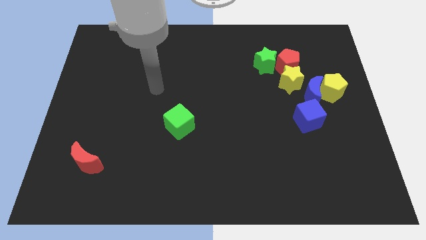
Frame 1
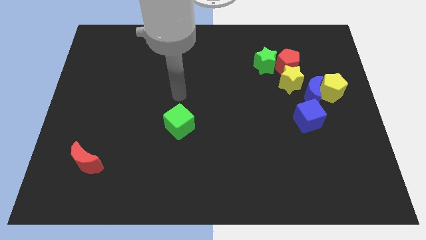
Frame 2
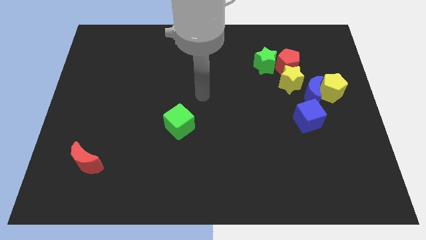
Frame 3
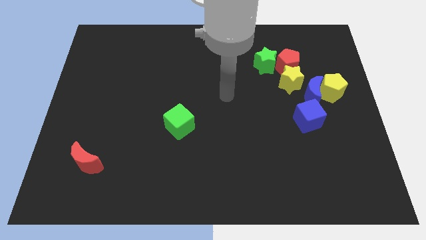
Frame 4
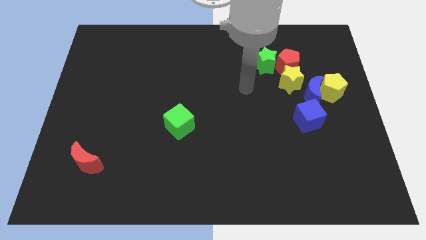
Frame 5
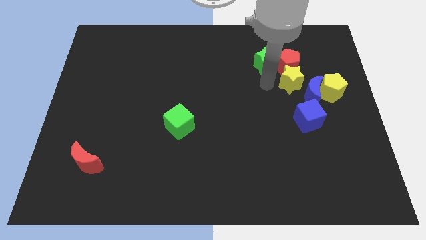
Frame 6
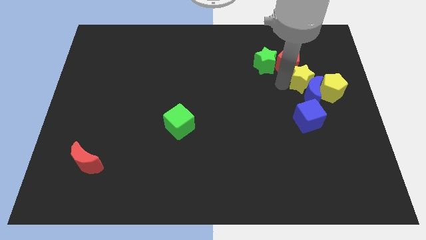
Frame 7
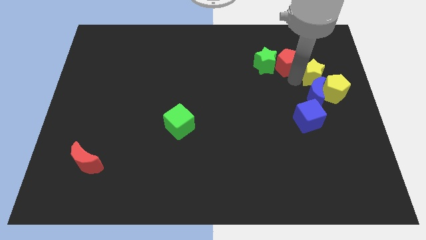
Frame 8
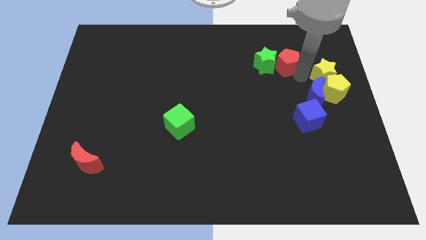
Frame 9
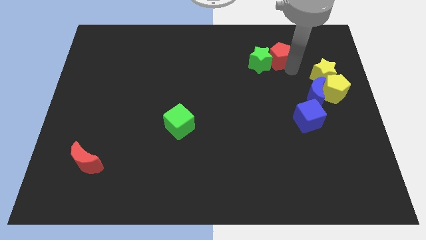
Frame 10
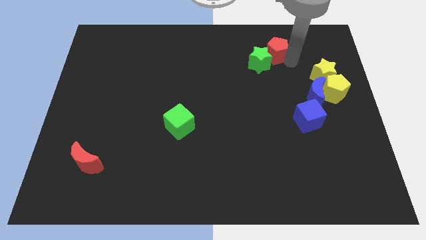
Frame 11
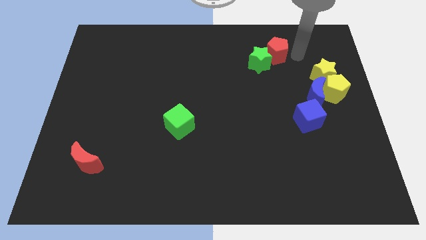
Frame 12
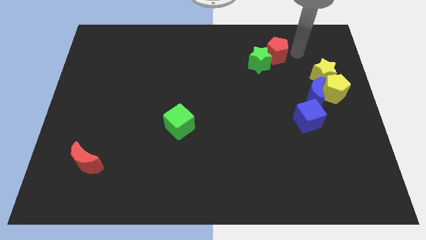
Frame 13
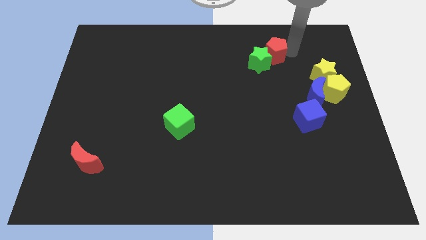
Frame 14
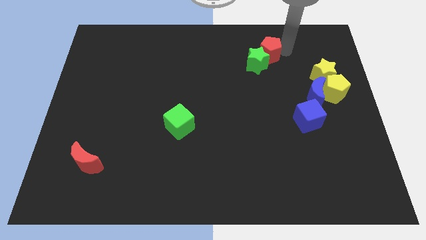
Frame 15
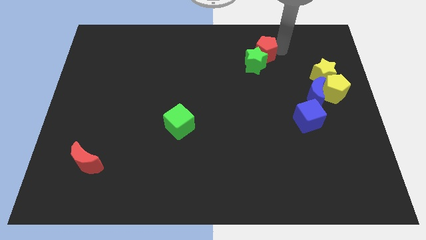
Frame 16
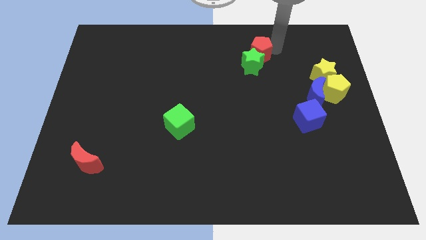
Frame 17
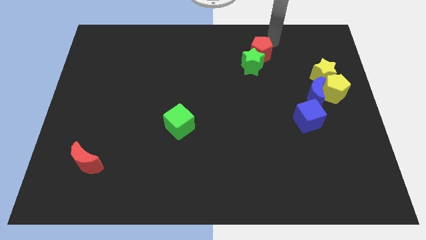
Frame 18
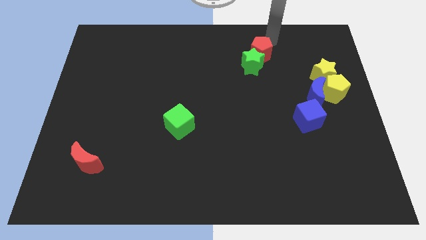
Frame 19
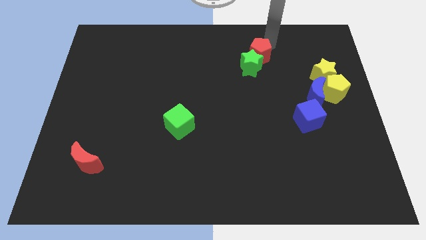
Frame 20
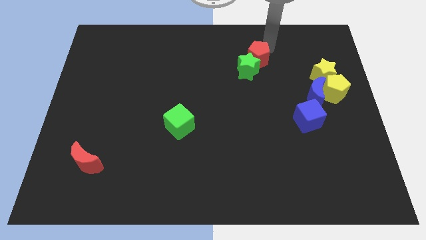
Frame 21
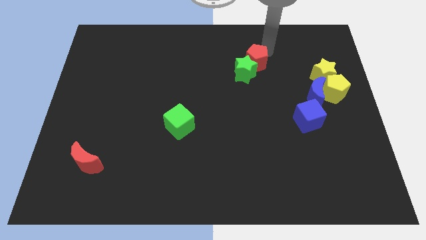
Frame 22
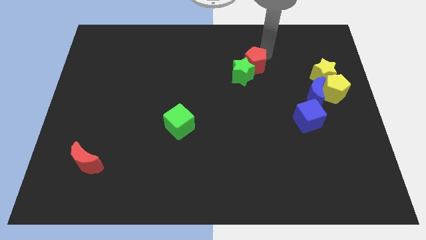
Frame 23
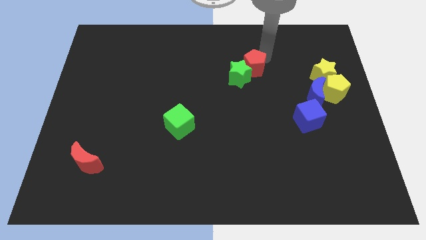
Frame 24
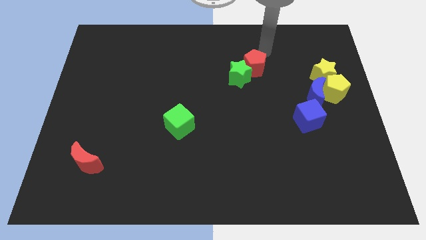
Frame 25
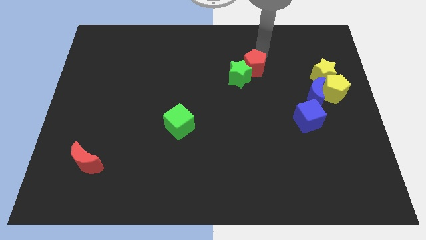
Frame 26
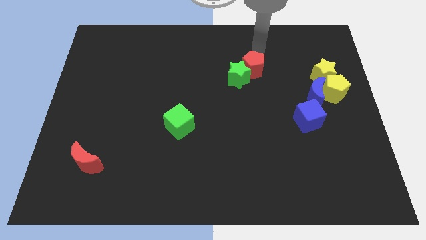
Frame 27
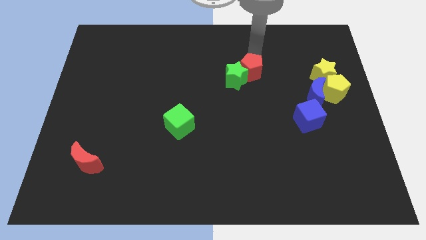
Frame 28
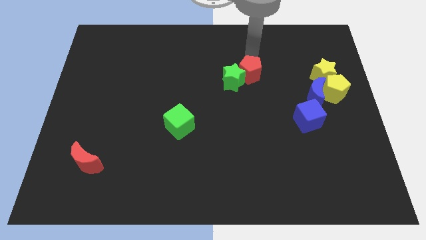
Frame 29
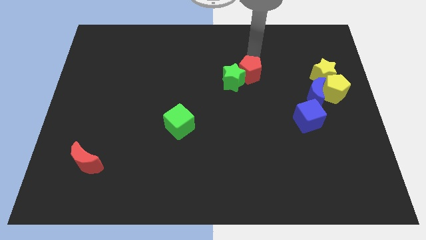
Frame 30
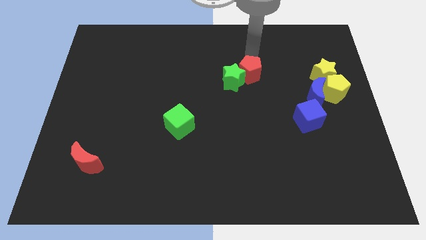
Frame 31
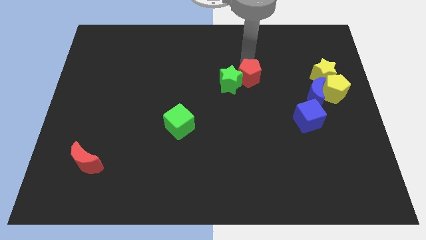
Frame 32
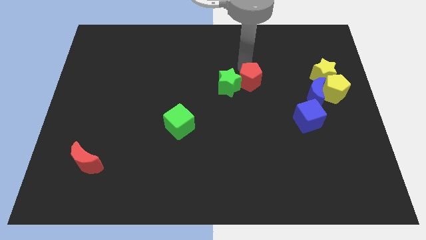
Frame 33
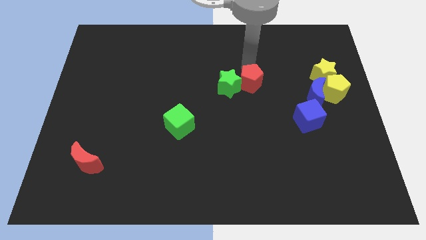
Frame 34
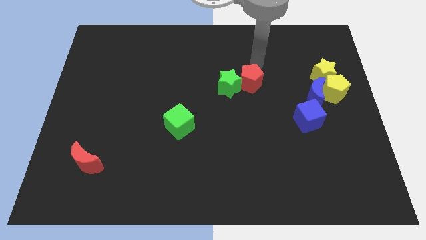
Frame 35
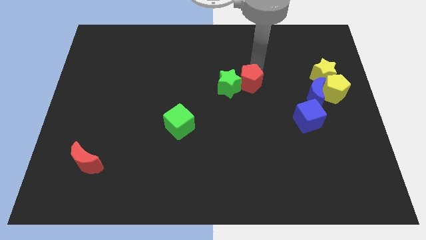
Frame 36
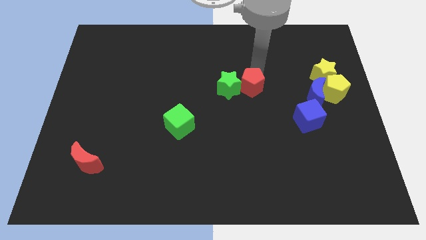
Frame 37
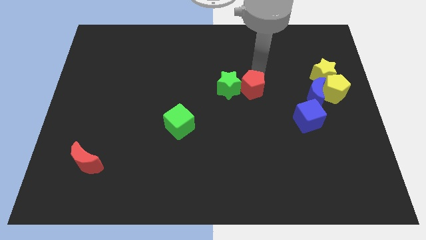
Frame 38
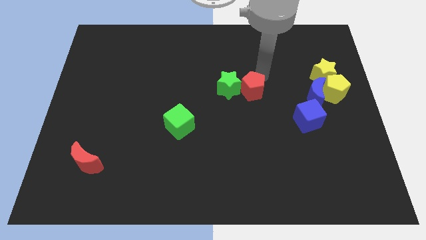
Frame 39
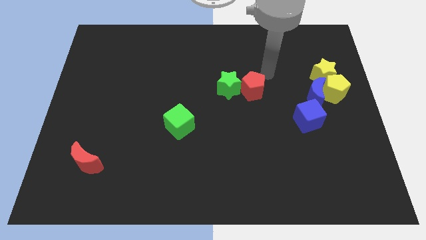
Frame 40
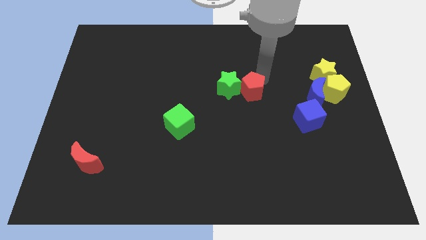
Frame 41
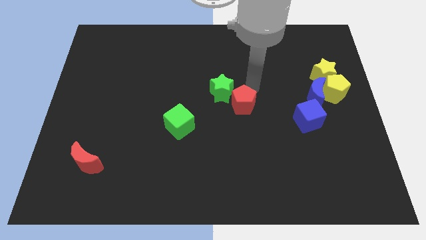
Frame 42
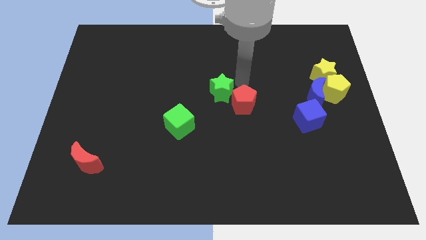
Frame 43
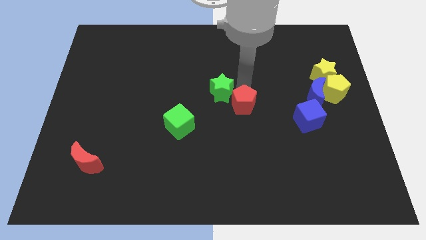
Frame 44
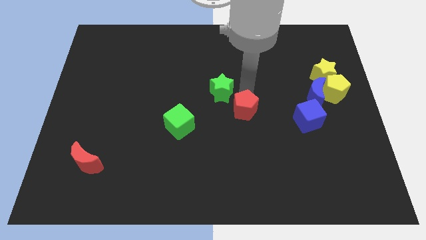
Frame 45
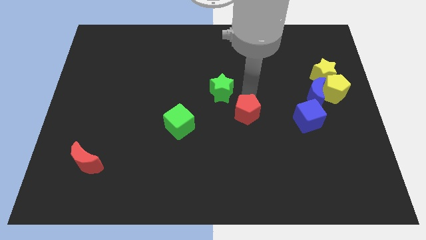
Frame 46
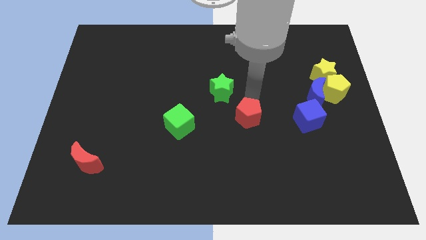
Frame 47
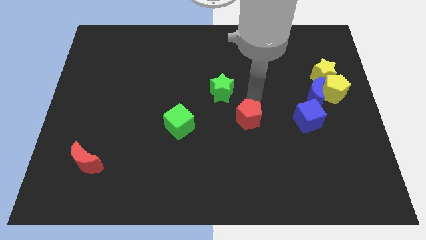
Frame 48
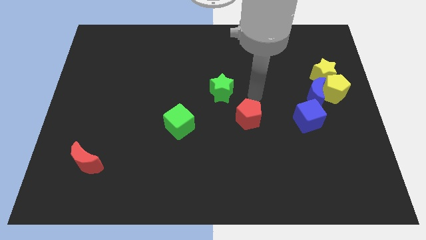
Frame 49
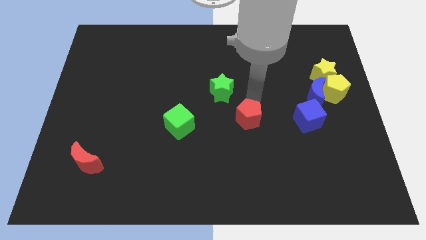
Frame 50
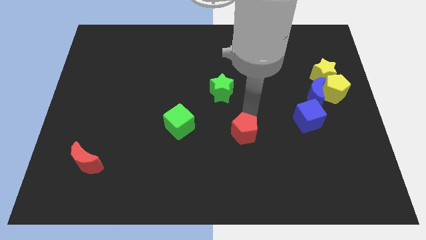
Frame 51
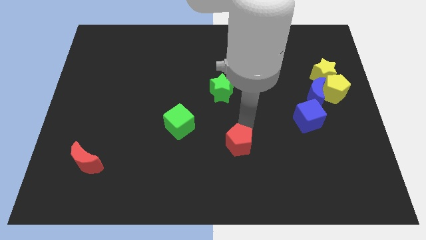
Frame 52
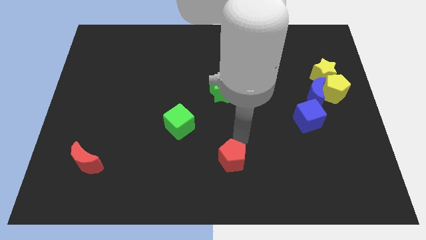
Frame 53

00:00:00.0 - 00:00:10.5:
move the red pentagon to the bottom

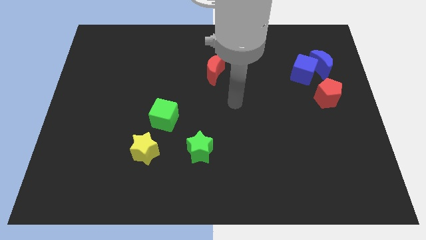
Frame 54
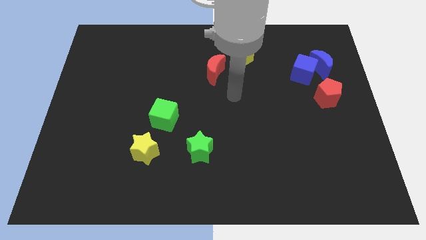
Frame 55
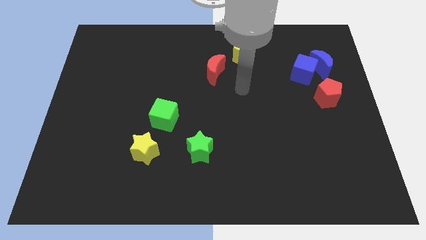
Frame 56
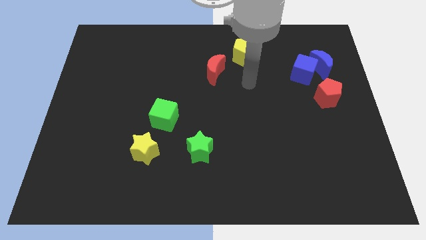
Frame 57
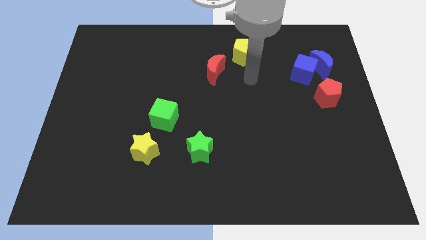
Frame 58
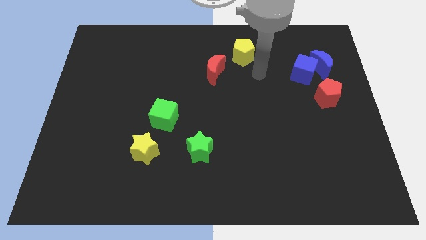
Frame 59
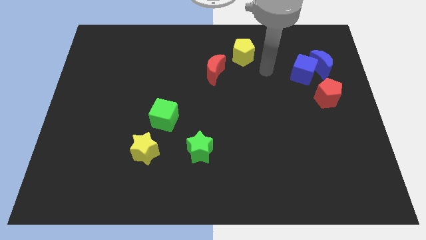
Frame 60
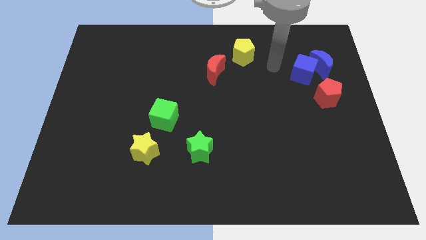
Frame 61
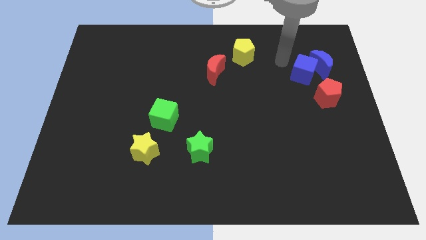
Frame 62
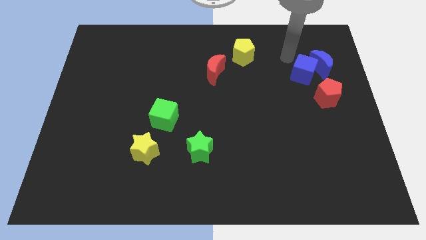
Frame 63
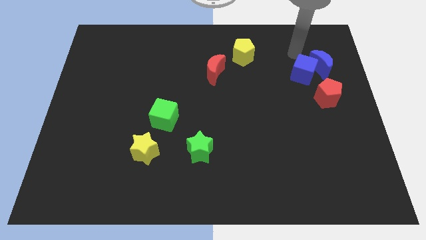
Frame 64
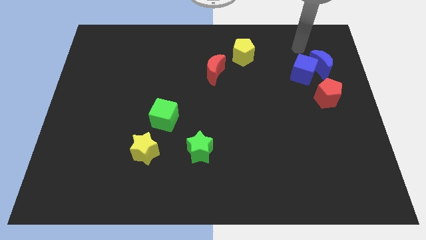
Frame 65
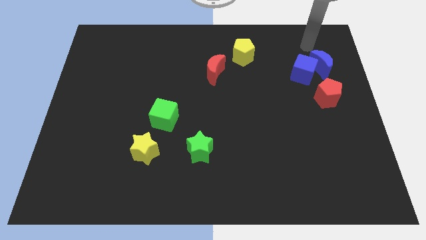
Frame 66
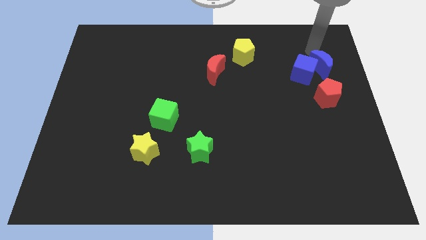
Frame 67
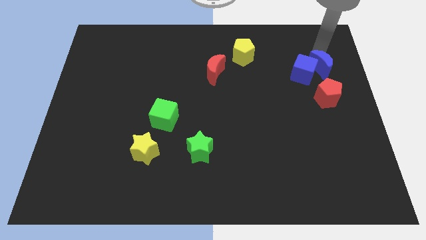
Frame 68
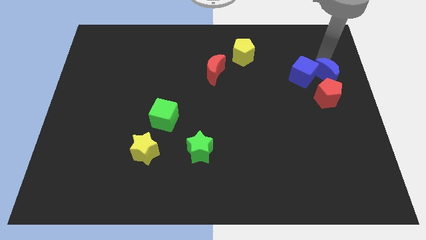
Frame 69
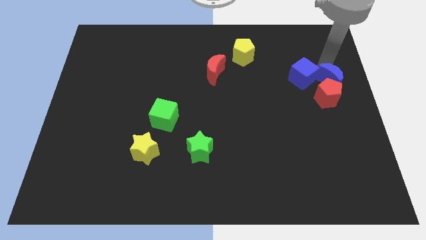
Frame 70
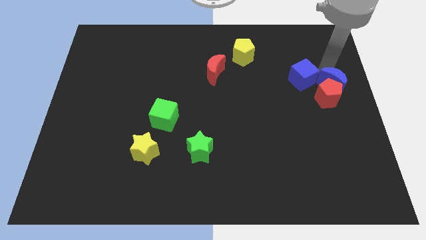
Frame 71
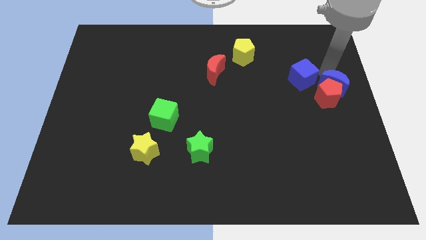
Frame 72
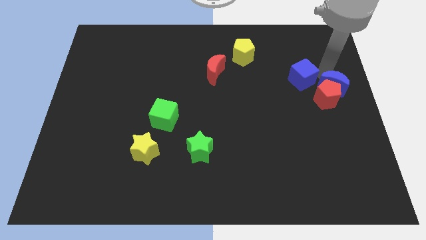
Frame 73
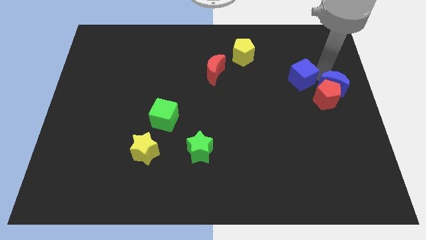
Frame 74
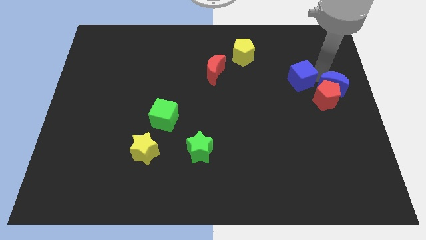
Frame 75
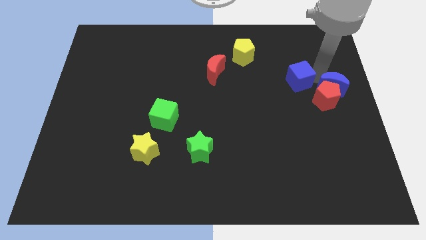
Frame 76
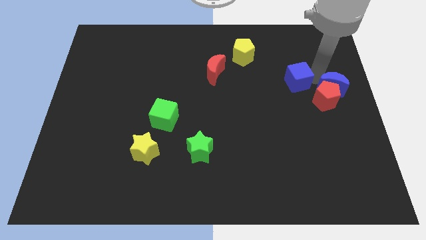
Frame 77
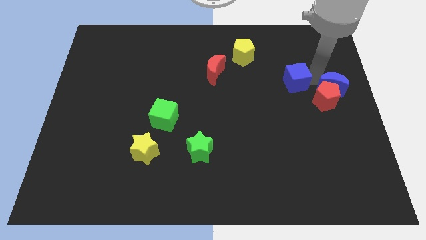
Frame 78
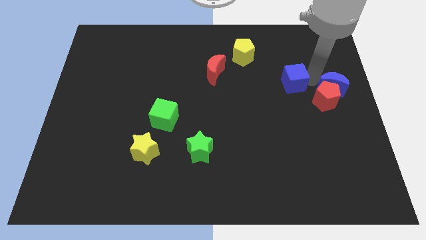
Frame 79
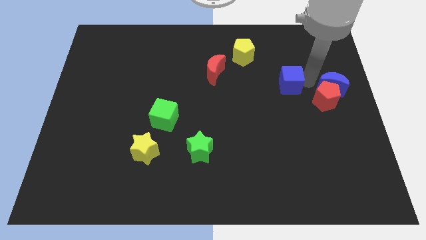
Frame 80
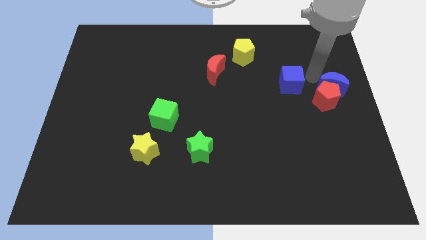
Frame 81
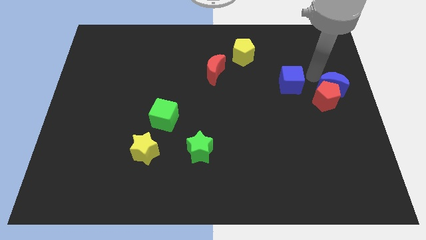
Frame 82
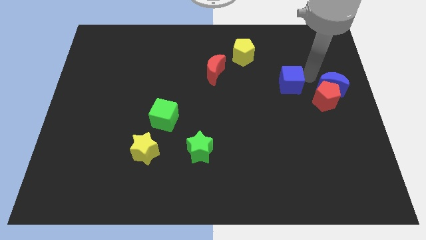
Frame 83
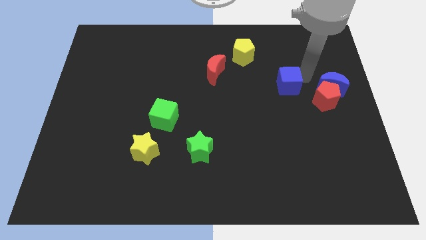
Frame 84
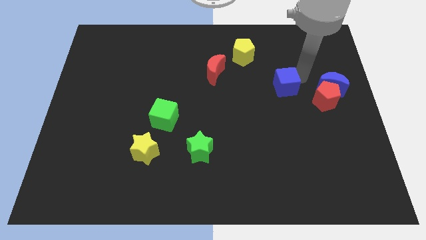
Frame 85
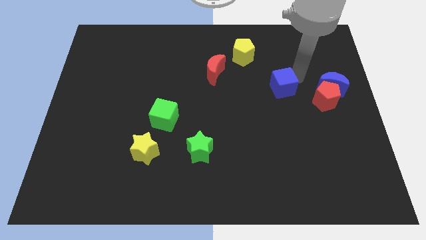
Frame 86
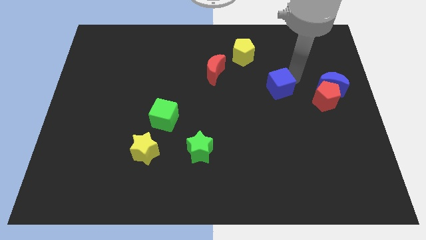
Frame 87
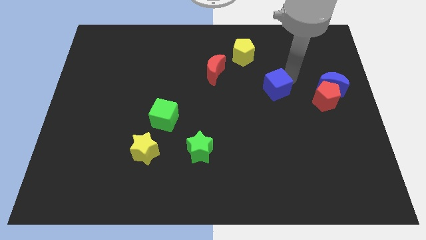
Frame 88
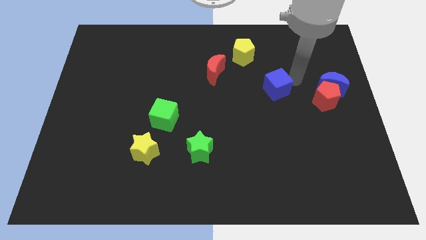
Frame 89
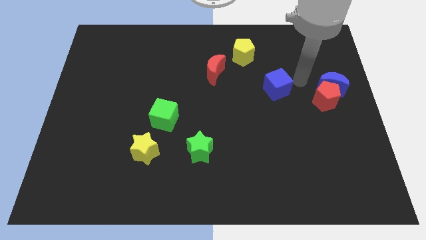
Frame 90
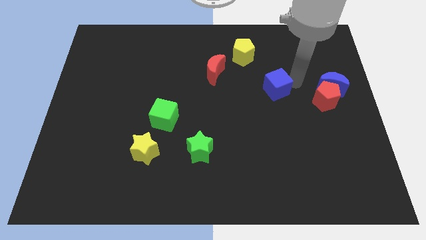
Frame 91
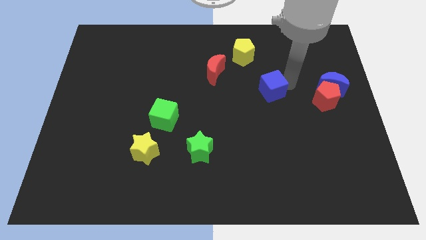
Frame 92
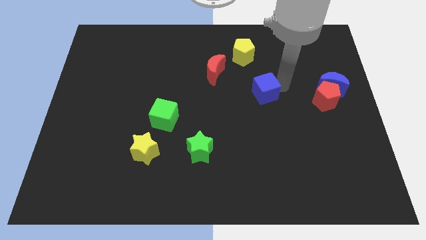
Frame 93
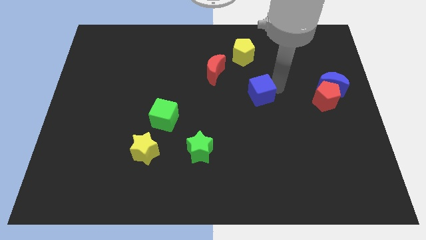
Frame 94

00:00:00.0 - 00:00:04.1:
put the blue cube to the middle
